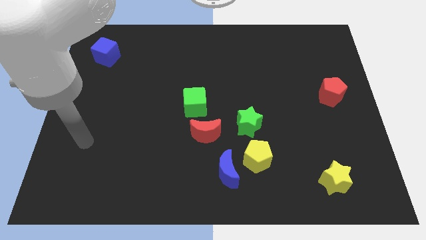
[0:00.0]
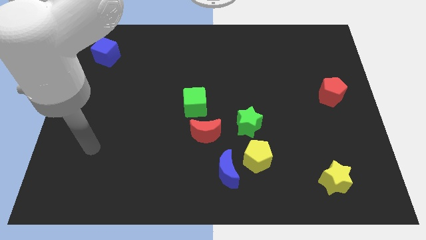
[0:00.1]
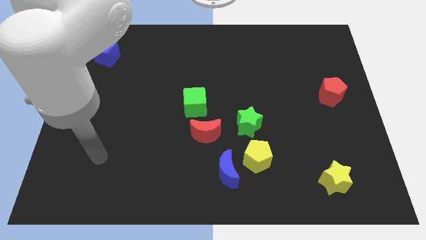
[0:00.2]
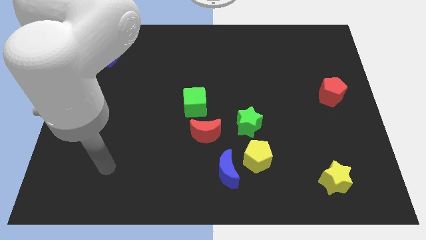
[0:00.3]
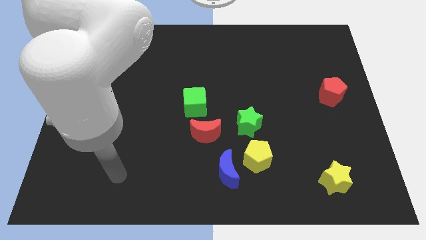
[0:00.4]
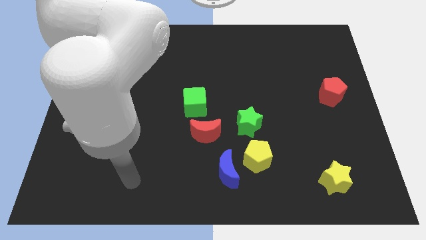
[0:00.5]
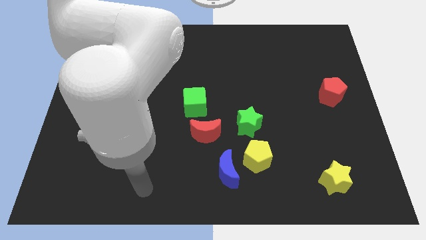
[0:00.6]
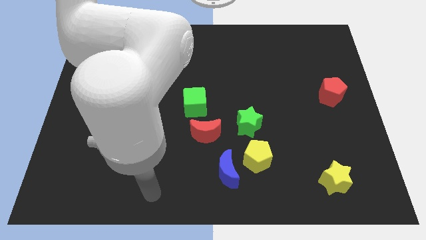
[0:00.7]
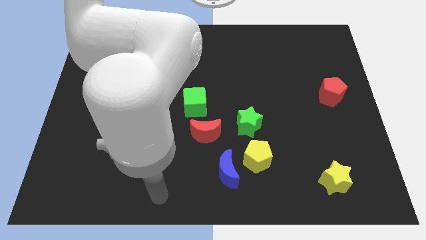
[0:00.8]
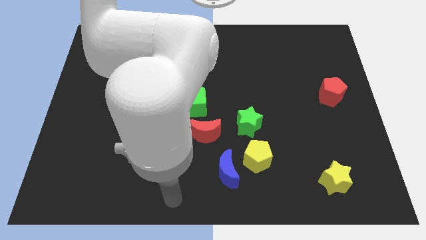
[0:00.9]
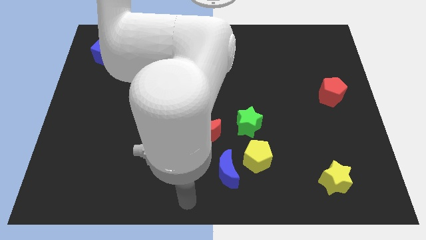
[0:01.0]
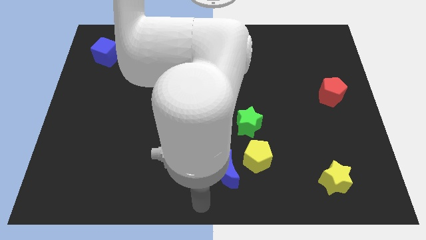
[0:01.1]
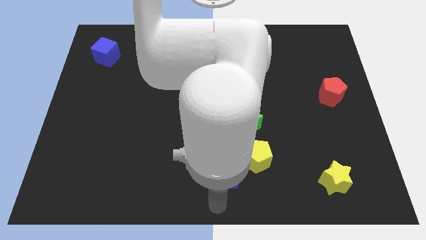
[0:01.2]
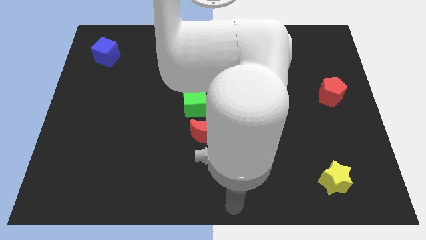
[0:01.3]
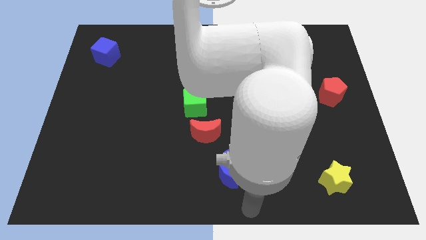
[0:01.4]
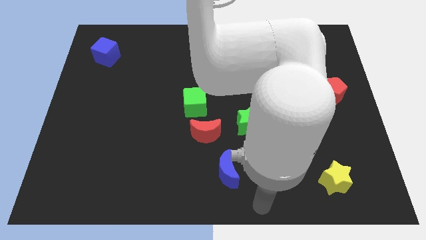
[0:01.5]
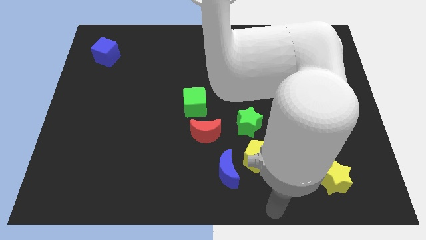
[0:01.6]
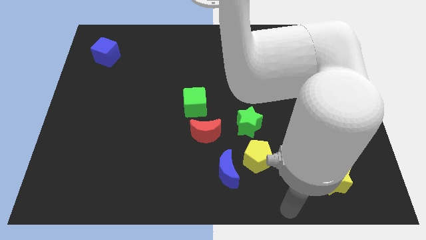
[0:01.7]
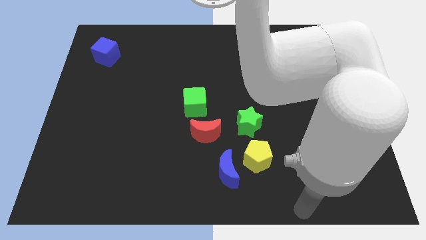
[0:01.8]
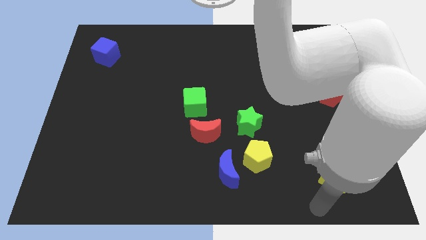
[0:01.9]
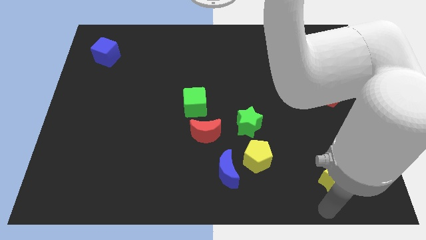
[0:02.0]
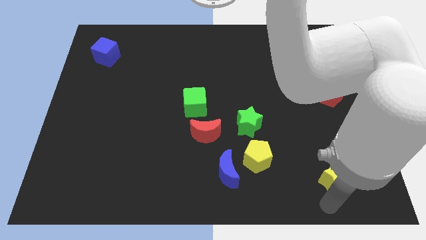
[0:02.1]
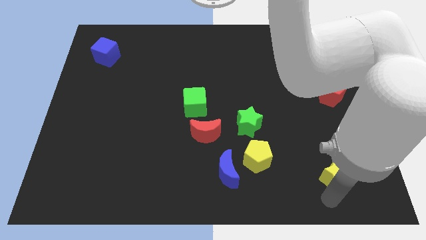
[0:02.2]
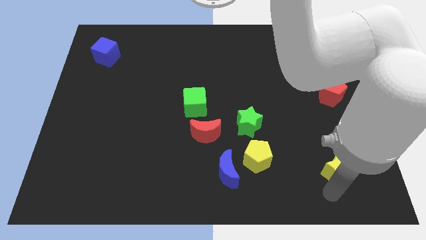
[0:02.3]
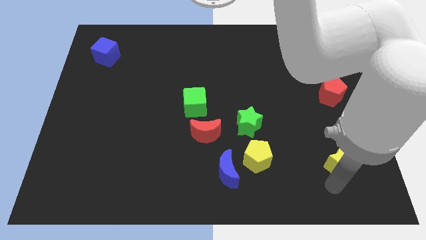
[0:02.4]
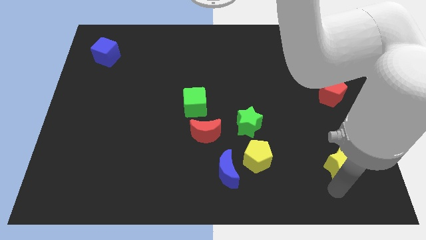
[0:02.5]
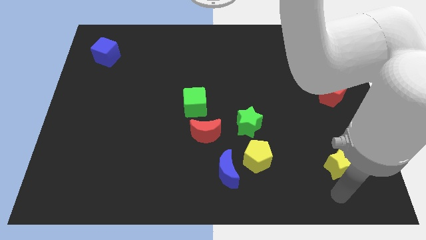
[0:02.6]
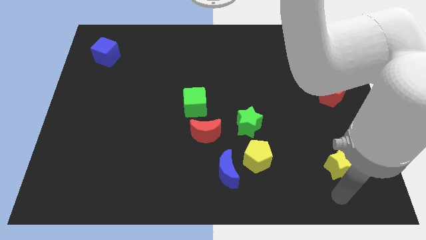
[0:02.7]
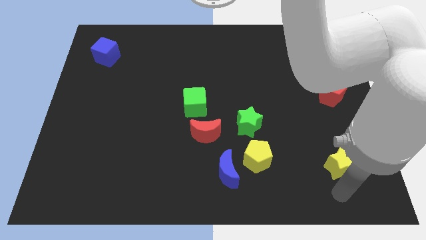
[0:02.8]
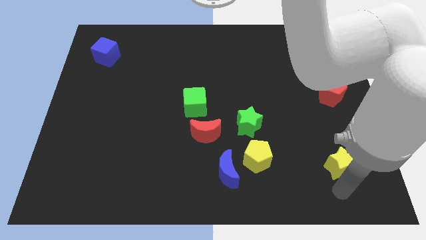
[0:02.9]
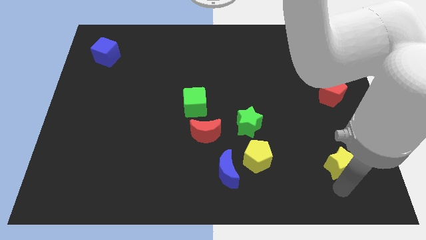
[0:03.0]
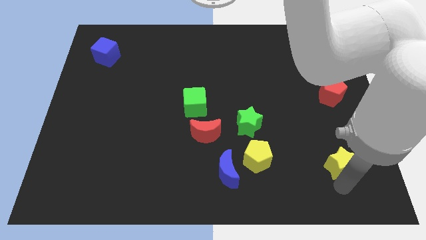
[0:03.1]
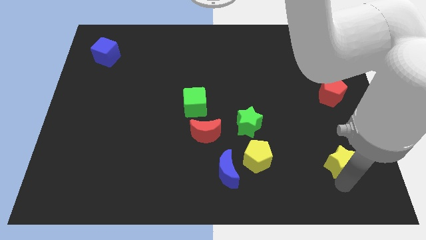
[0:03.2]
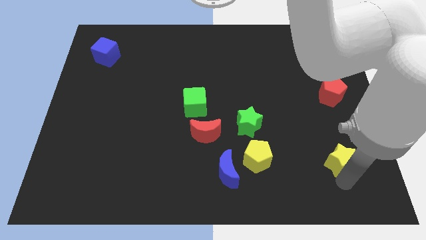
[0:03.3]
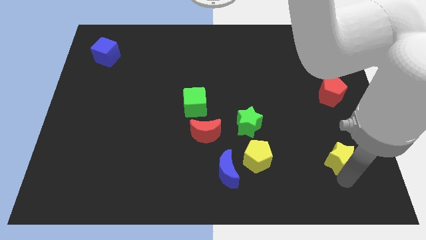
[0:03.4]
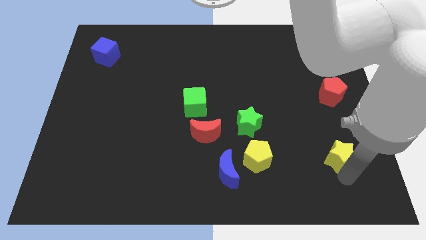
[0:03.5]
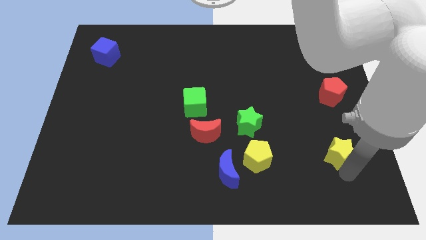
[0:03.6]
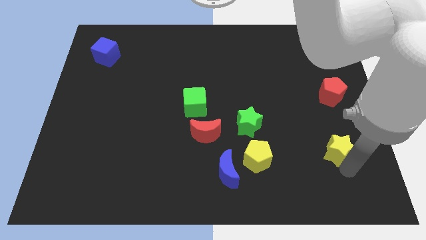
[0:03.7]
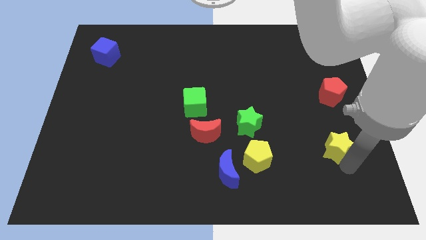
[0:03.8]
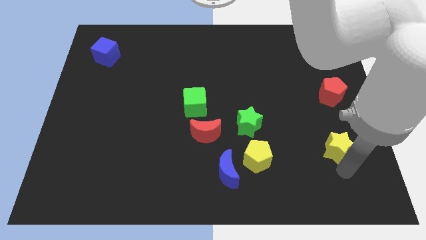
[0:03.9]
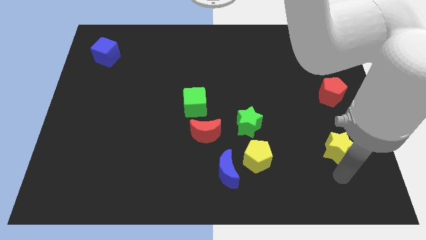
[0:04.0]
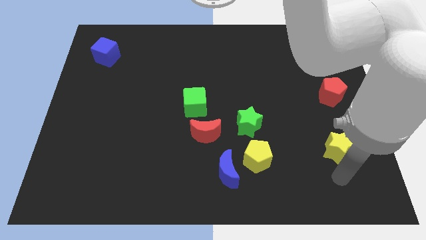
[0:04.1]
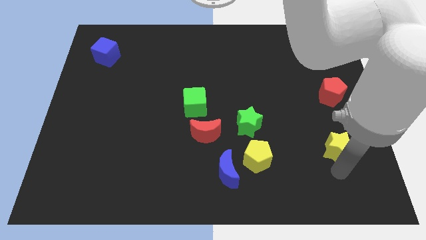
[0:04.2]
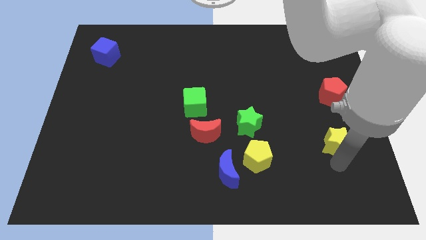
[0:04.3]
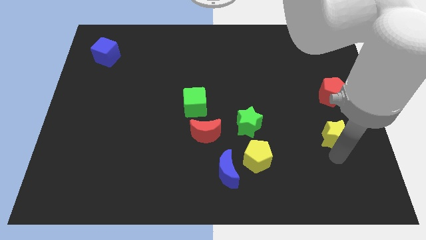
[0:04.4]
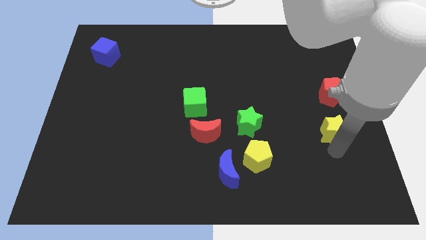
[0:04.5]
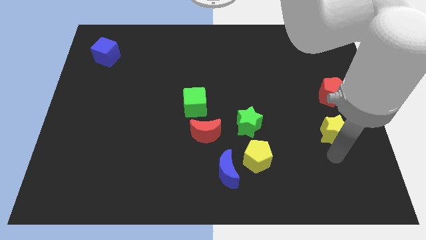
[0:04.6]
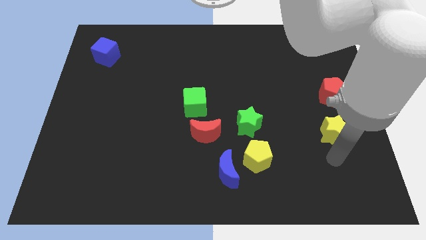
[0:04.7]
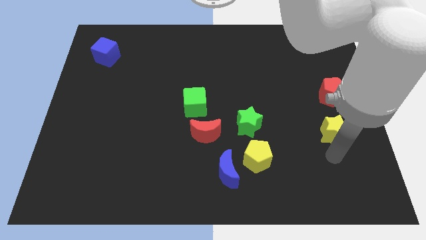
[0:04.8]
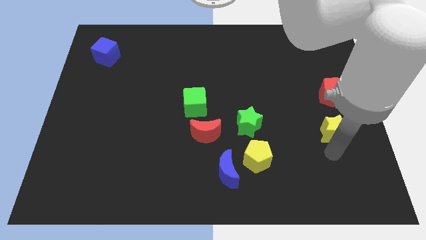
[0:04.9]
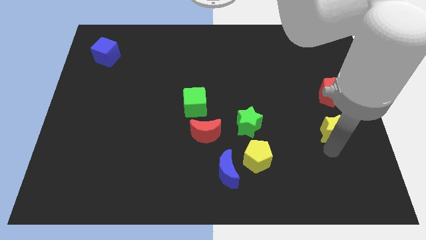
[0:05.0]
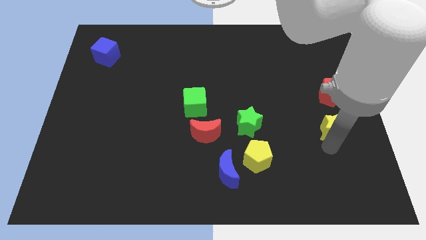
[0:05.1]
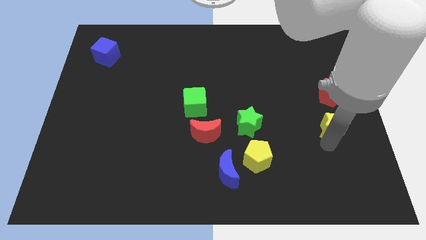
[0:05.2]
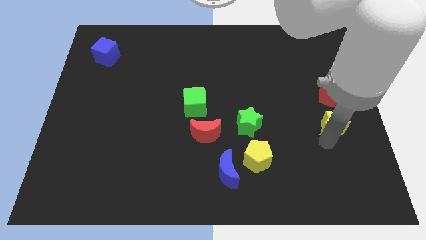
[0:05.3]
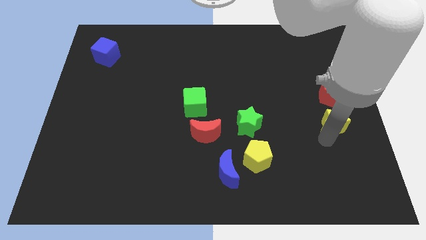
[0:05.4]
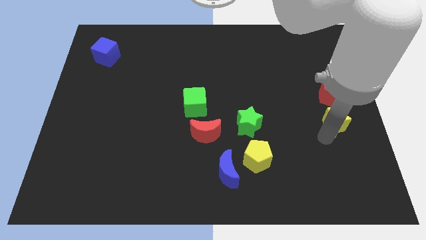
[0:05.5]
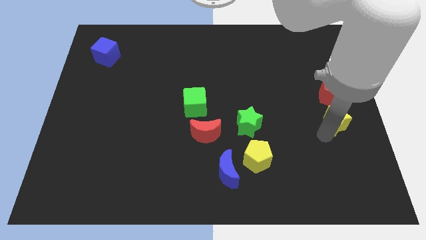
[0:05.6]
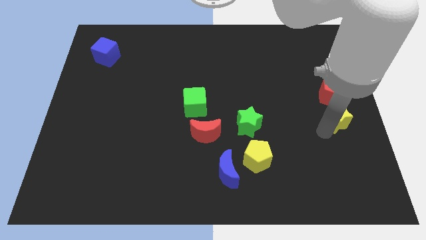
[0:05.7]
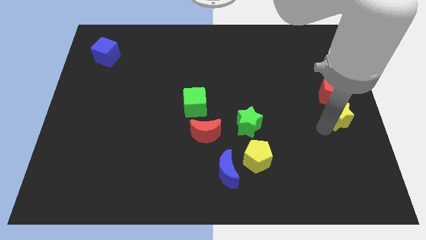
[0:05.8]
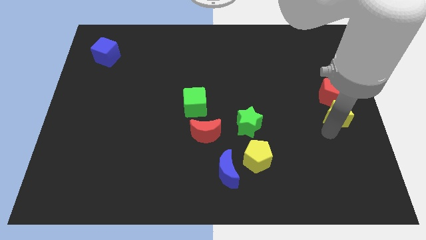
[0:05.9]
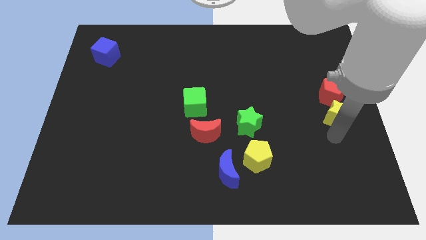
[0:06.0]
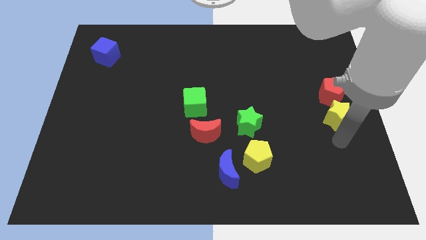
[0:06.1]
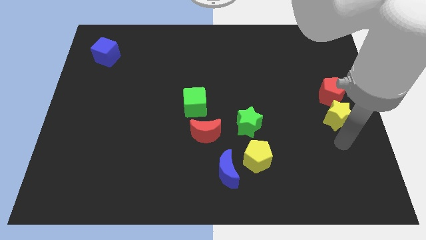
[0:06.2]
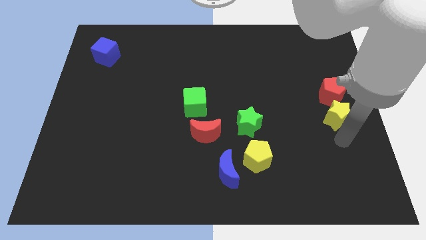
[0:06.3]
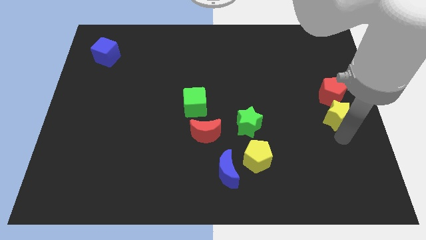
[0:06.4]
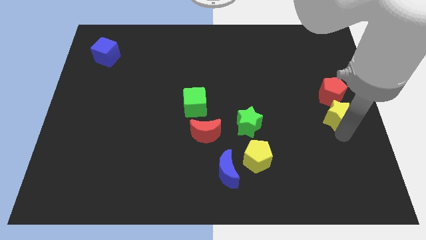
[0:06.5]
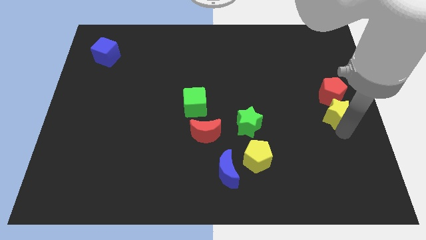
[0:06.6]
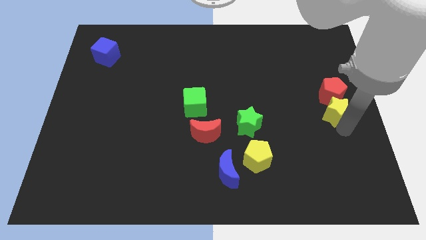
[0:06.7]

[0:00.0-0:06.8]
slide the yellow star towards the red pentagon
